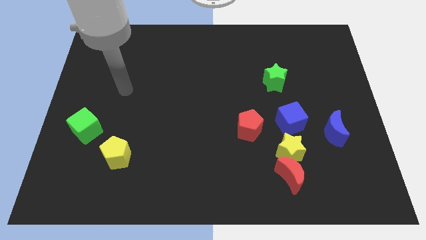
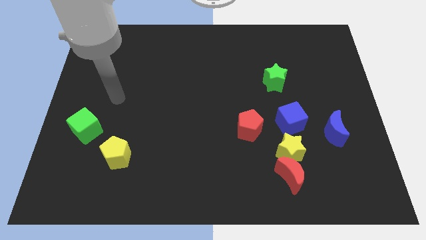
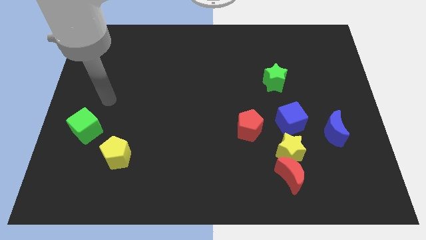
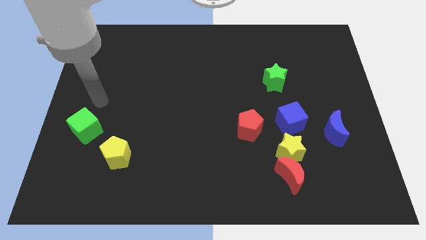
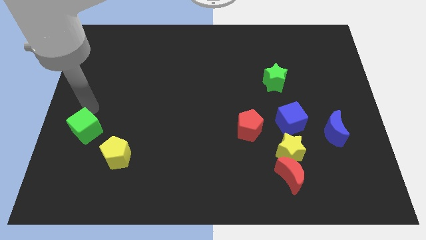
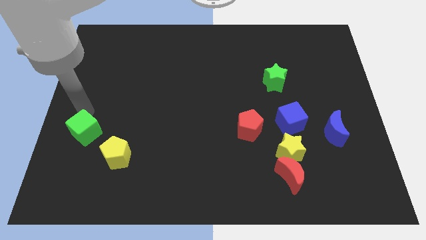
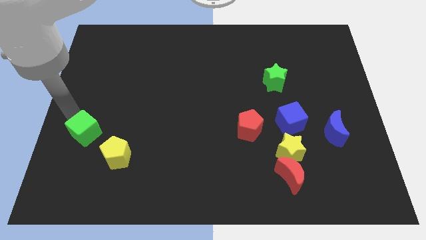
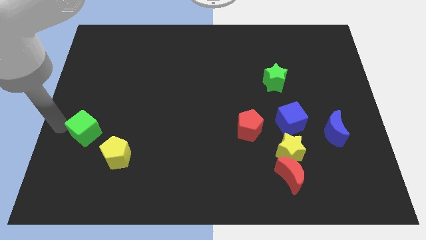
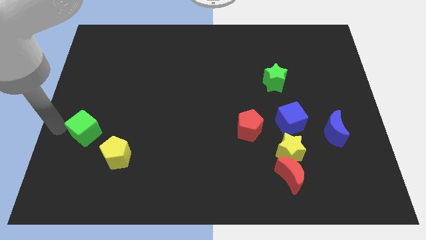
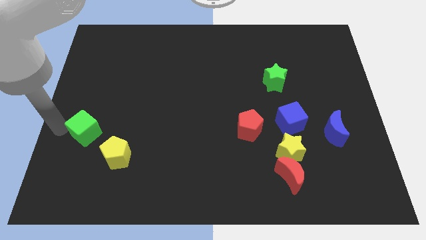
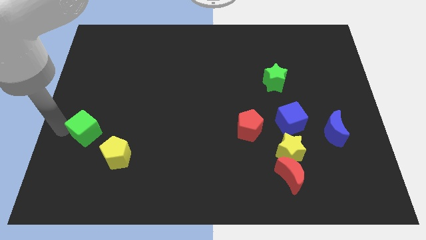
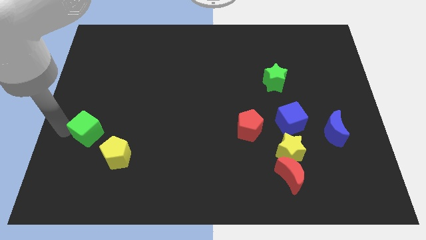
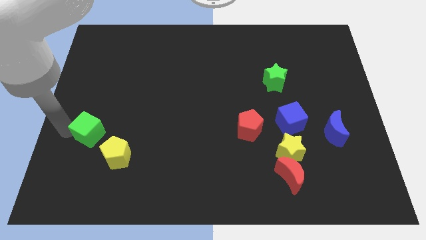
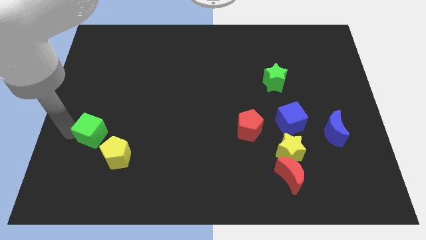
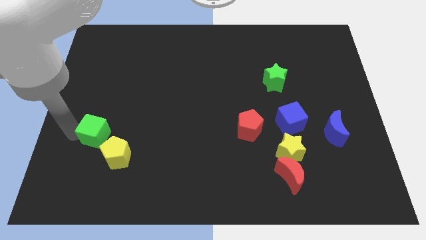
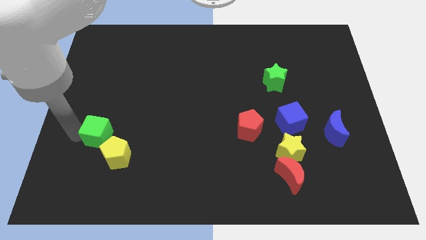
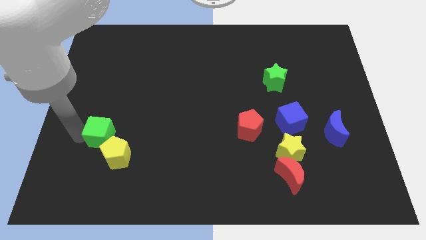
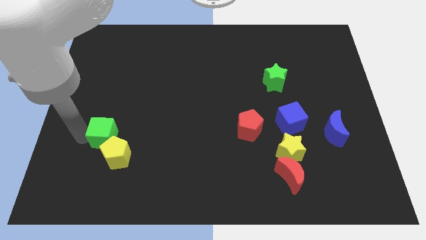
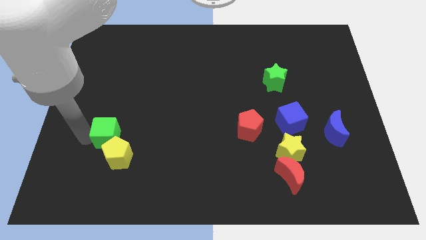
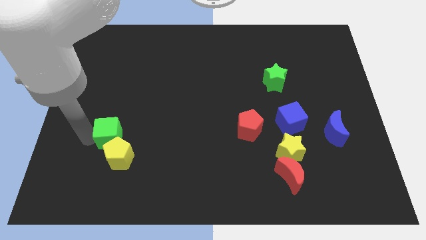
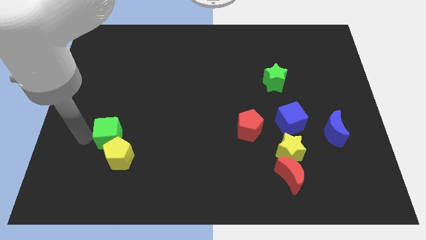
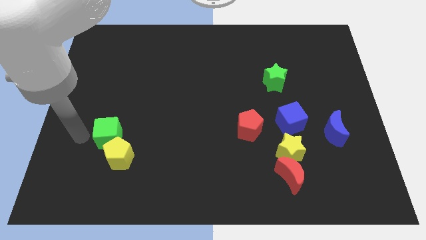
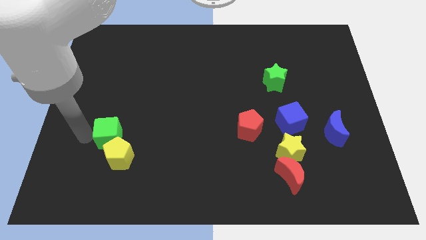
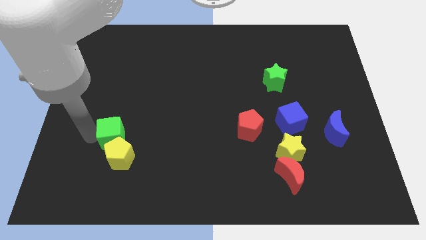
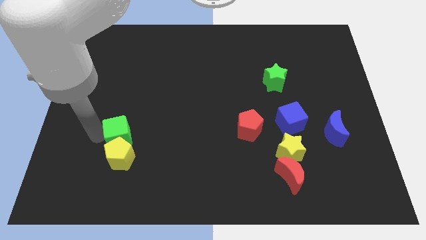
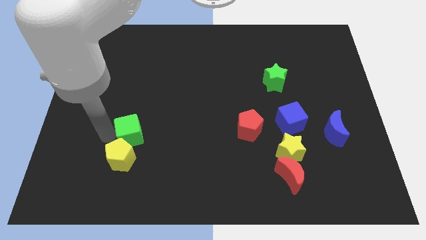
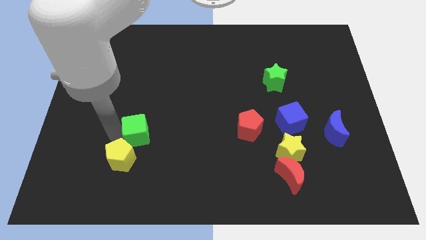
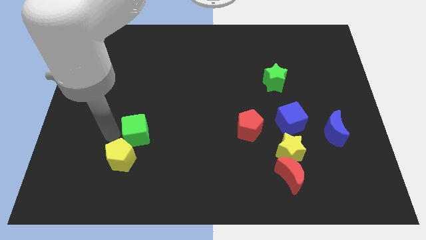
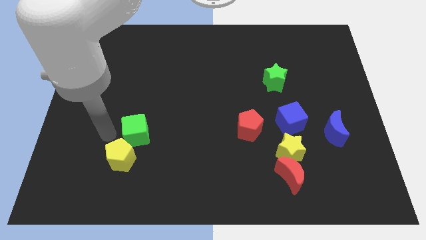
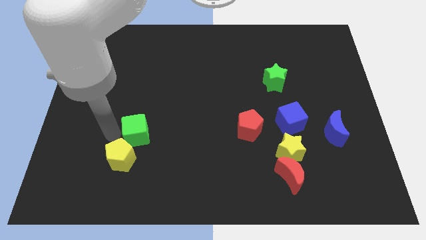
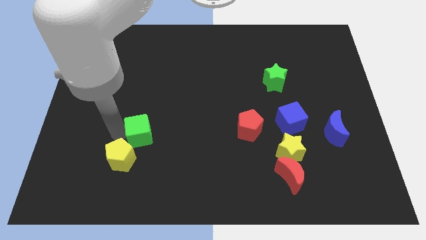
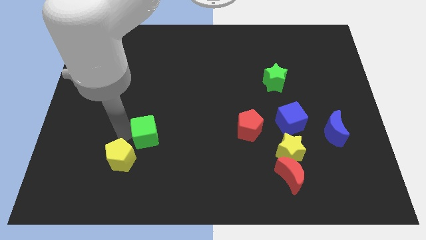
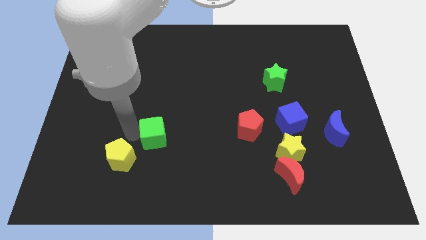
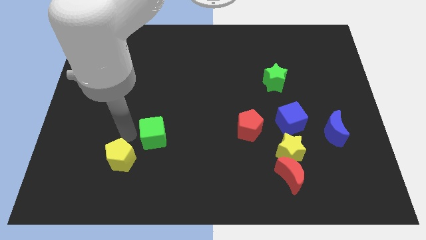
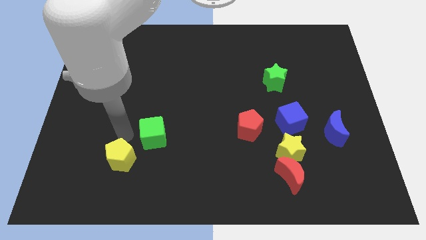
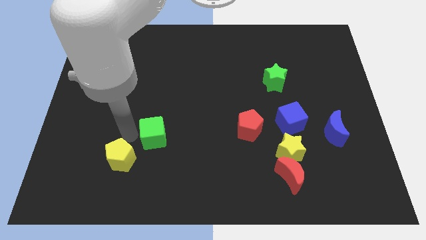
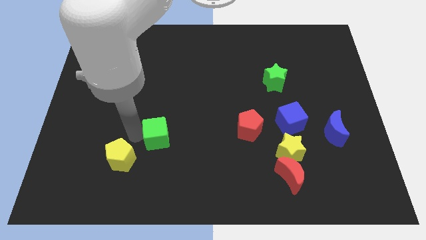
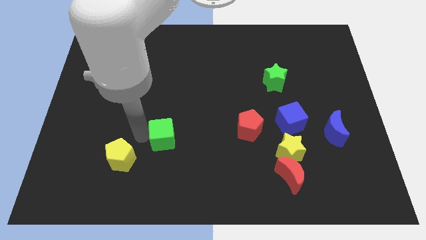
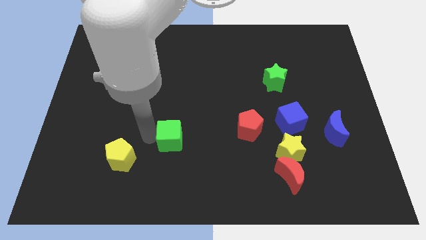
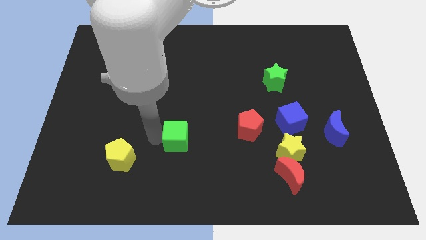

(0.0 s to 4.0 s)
slide the green cube to the right

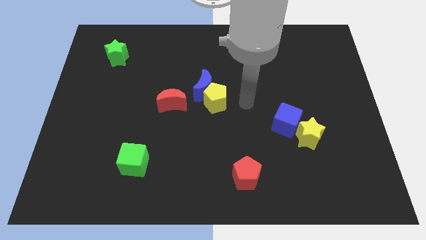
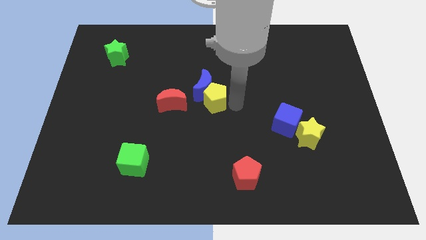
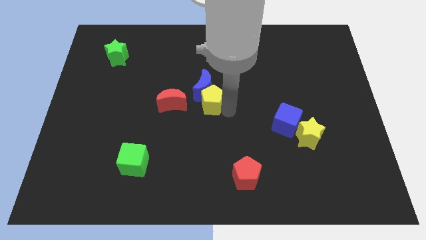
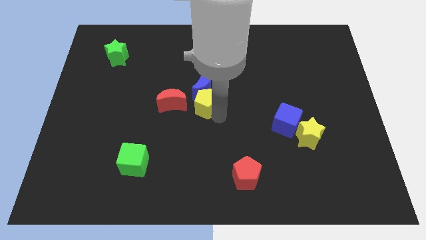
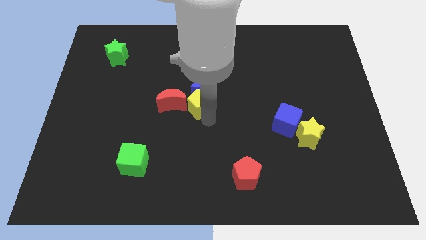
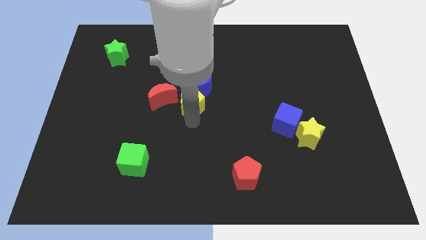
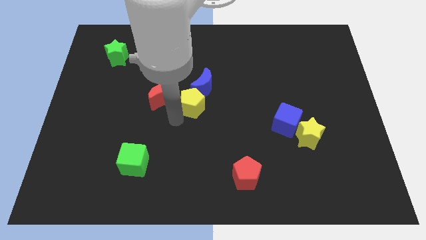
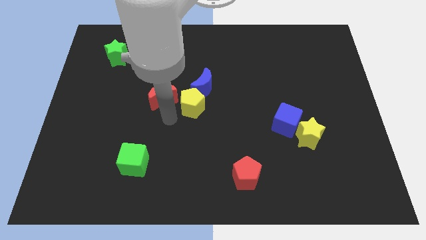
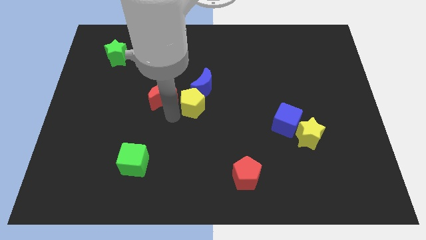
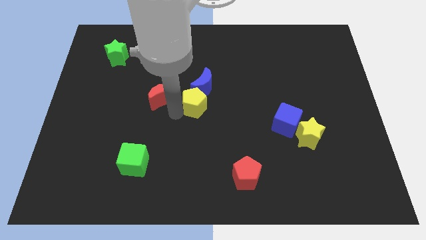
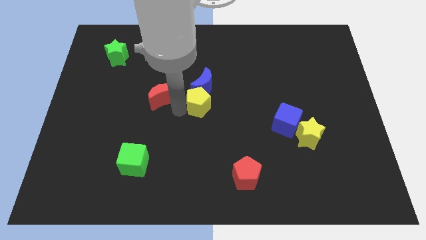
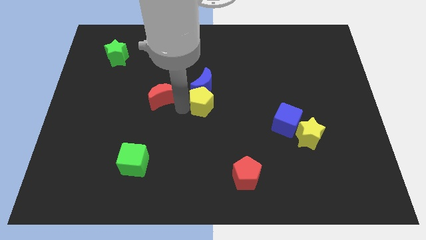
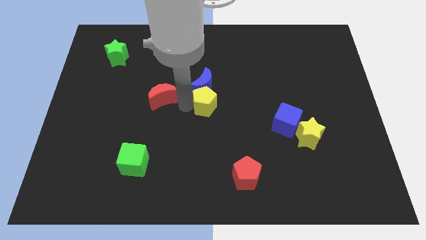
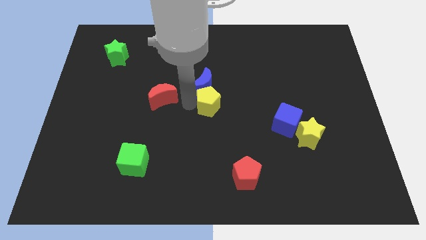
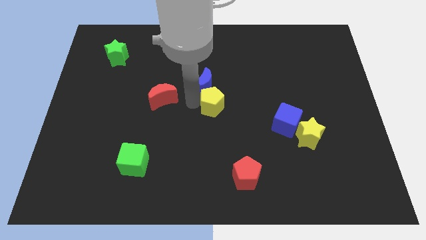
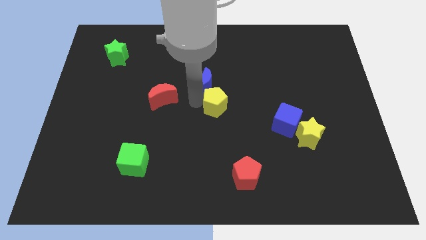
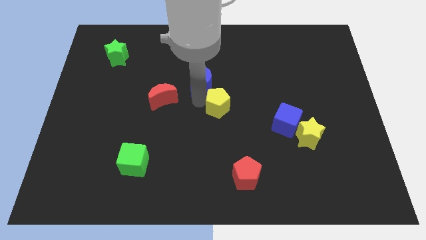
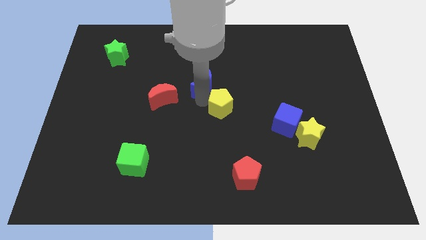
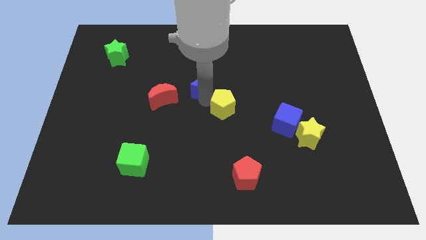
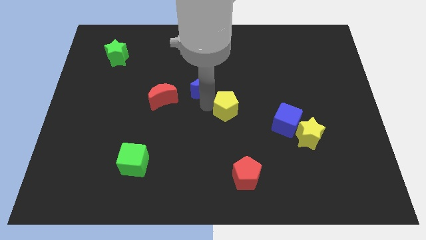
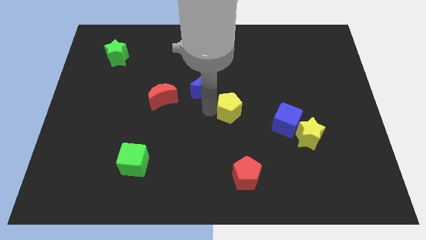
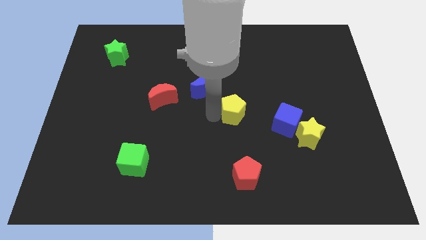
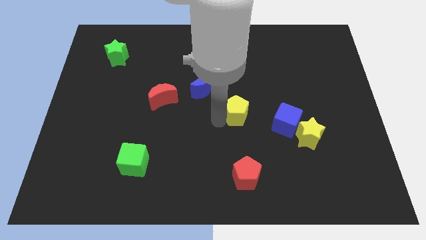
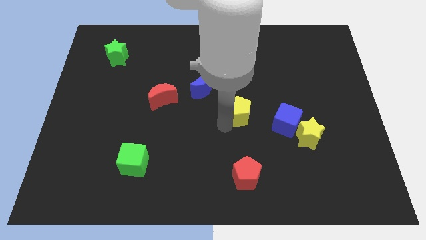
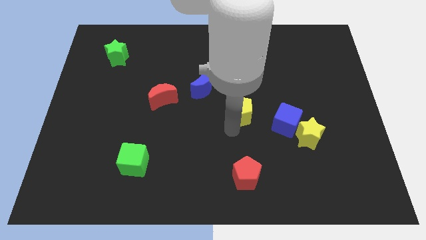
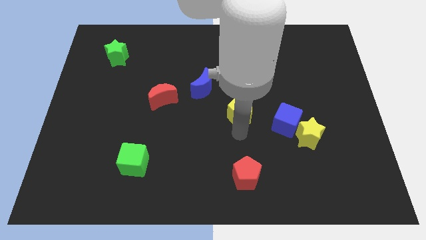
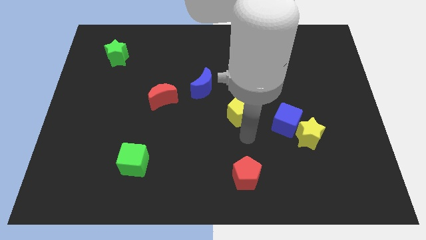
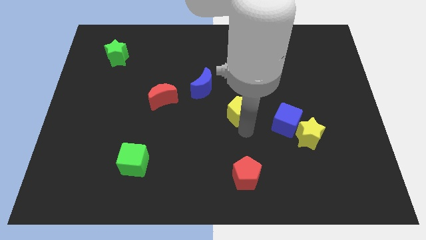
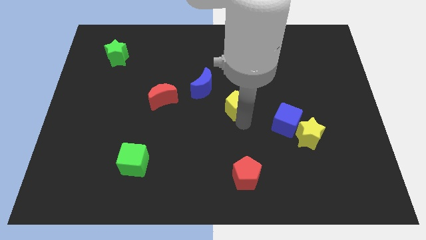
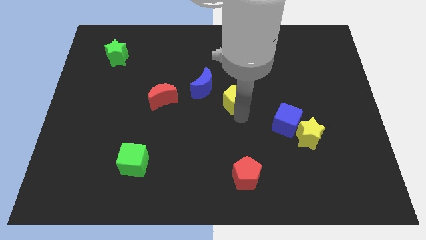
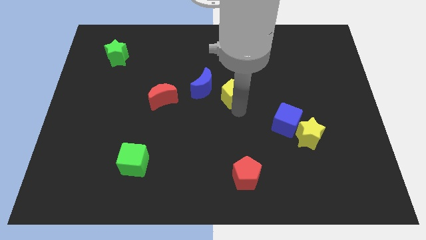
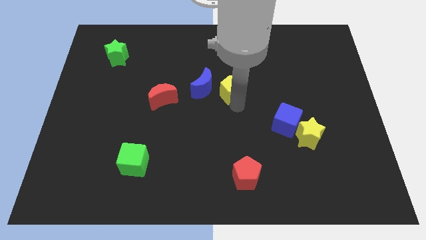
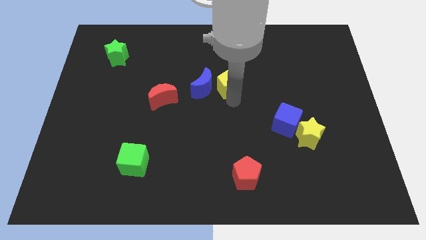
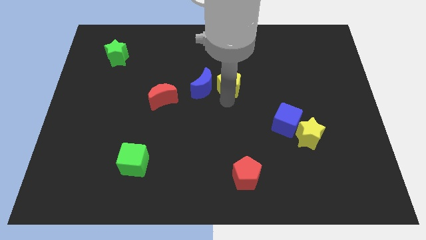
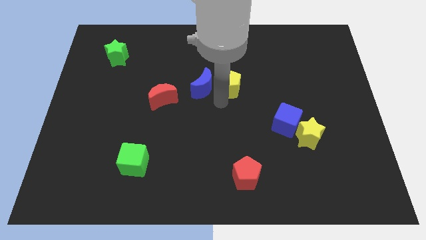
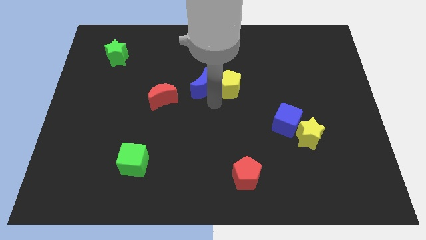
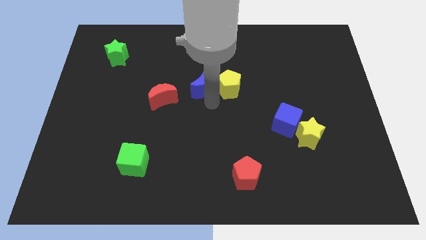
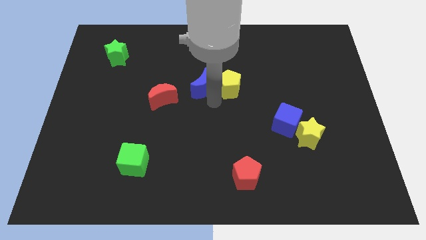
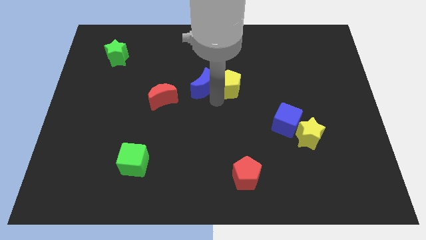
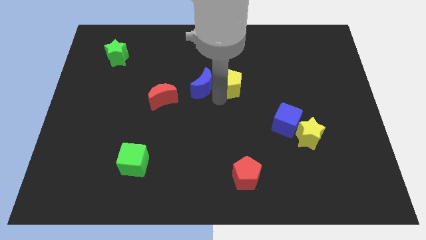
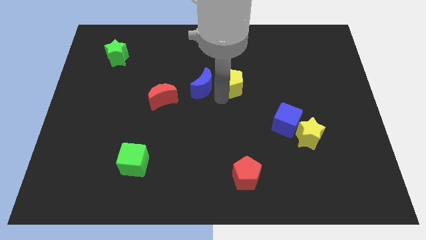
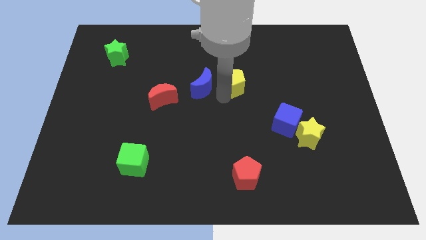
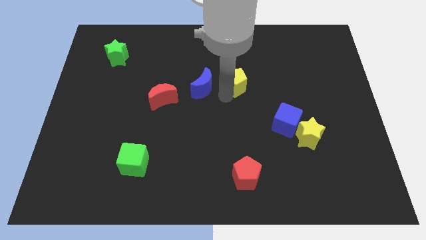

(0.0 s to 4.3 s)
move the yellow pentagon upwards and then right somewhat
